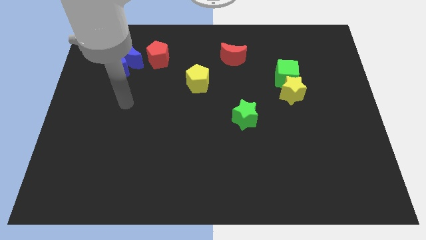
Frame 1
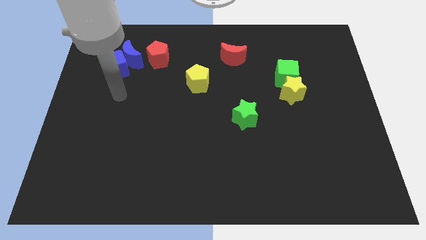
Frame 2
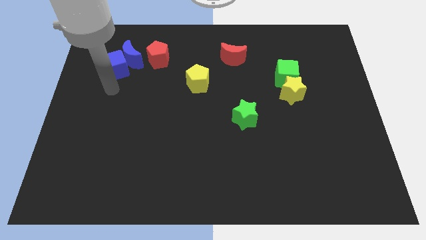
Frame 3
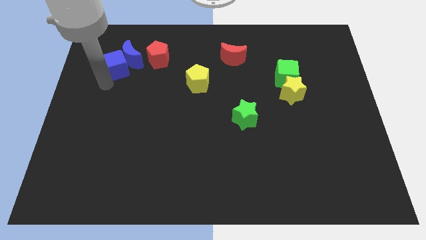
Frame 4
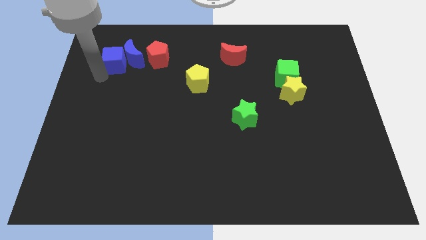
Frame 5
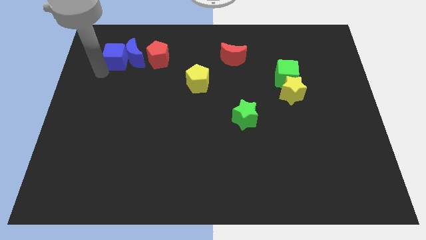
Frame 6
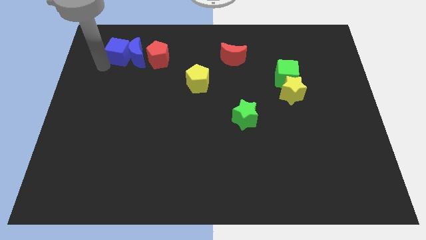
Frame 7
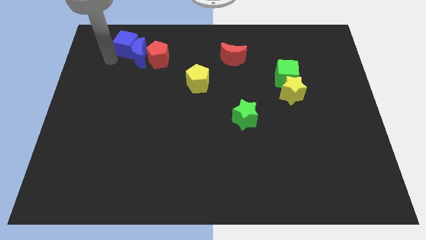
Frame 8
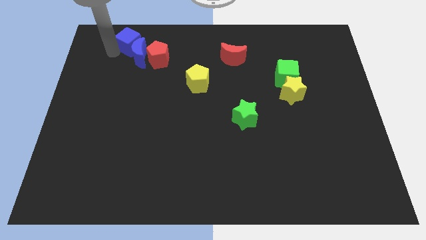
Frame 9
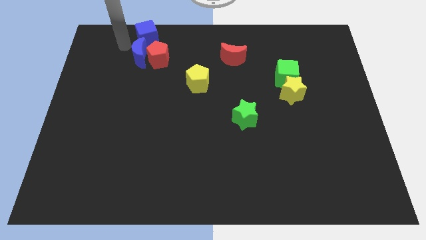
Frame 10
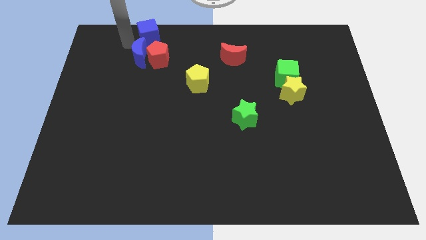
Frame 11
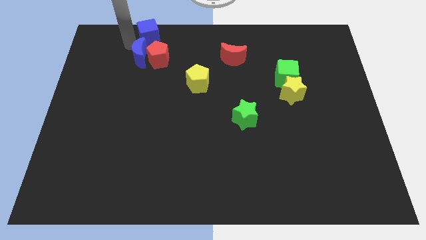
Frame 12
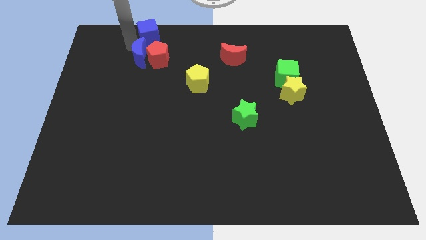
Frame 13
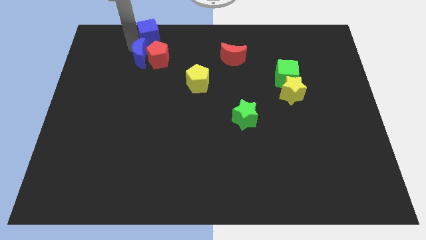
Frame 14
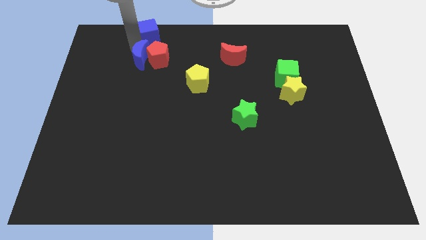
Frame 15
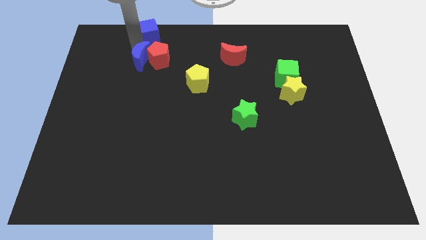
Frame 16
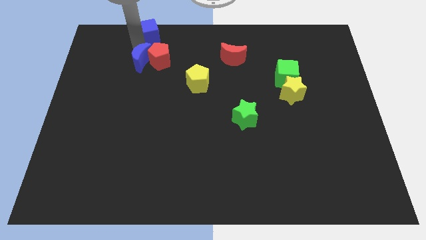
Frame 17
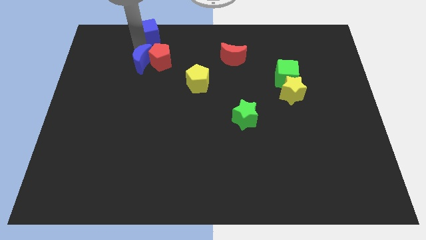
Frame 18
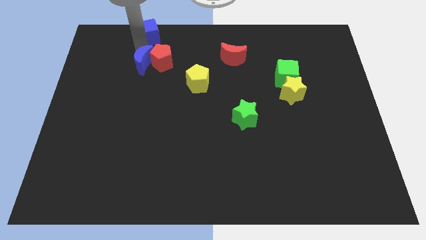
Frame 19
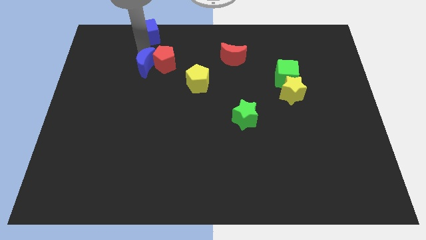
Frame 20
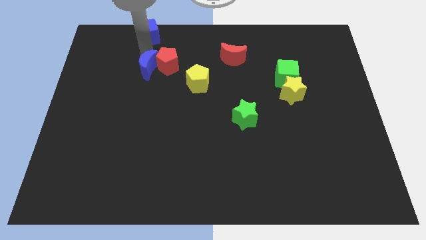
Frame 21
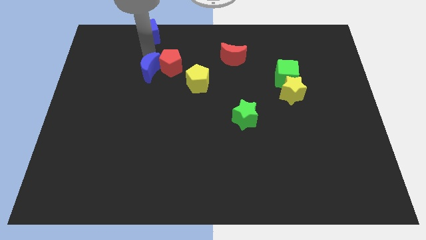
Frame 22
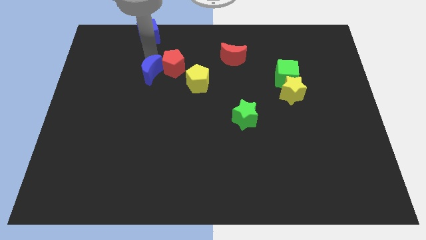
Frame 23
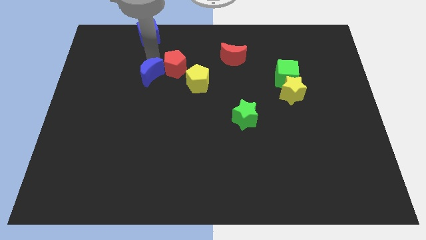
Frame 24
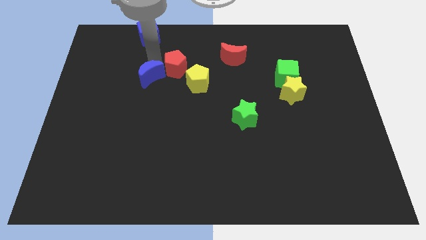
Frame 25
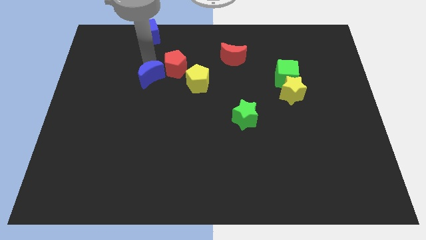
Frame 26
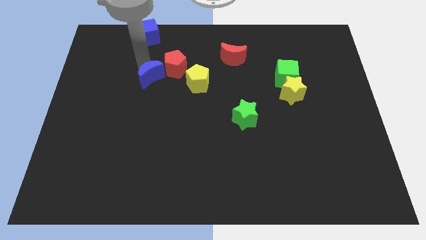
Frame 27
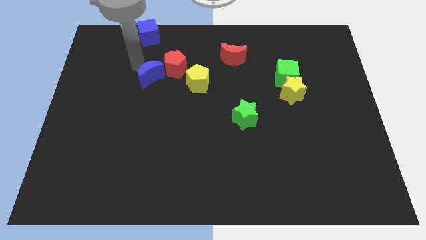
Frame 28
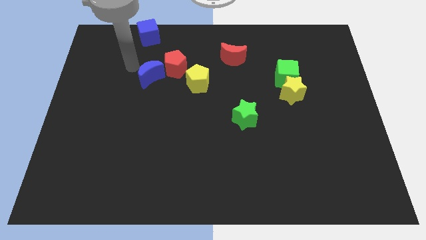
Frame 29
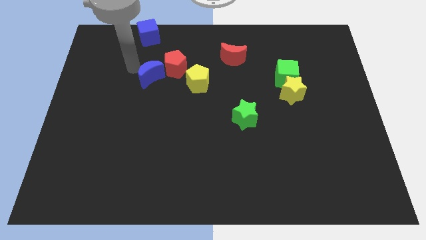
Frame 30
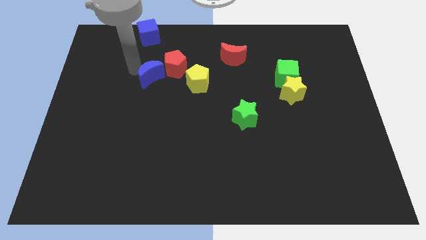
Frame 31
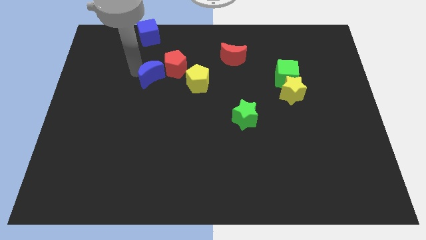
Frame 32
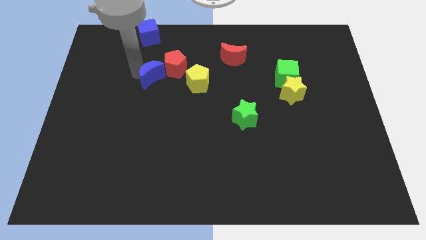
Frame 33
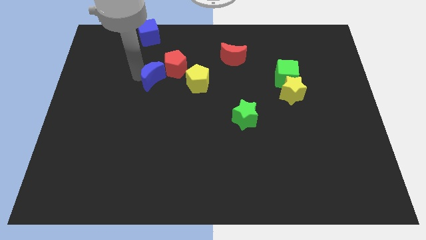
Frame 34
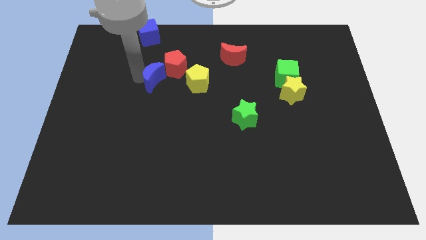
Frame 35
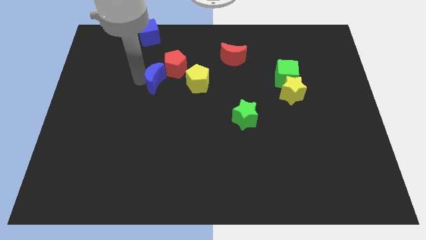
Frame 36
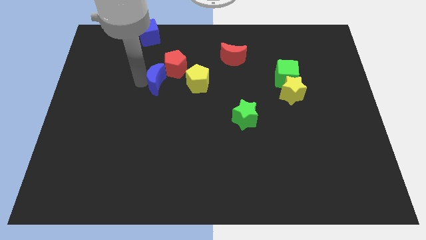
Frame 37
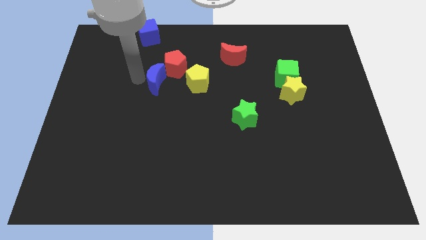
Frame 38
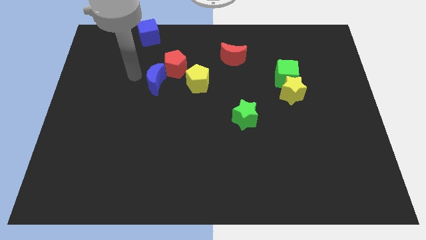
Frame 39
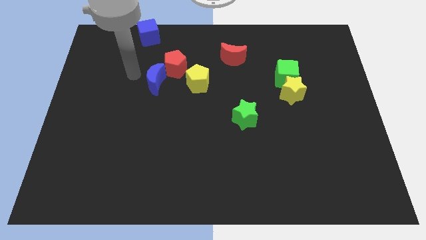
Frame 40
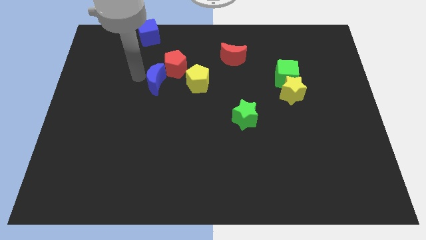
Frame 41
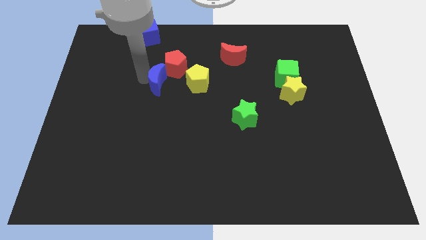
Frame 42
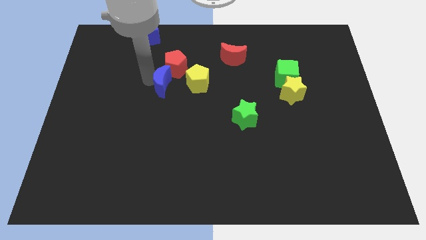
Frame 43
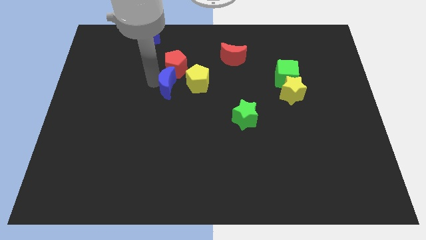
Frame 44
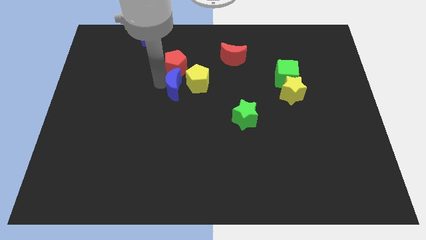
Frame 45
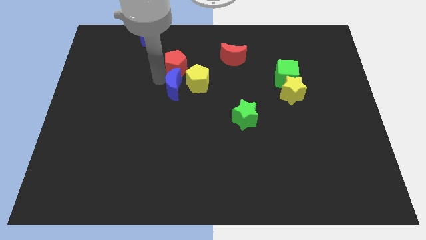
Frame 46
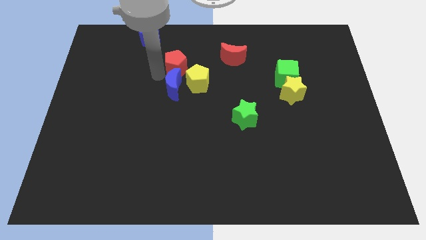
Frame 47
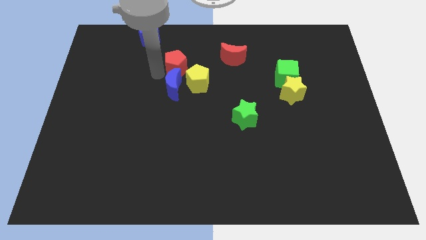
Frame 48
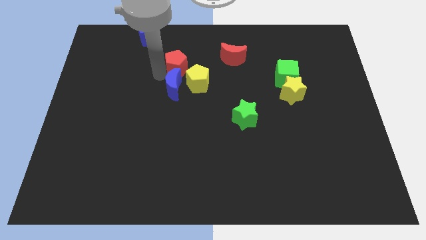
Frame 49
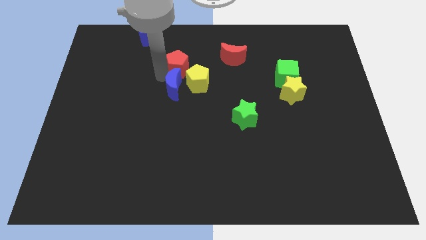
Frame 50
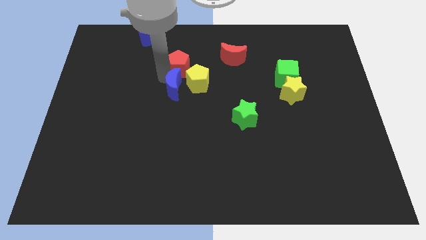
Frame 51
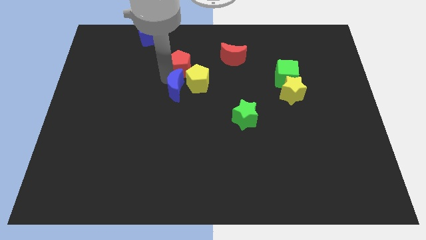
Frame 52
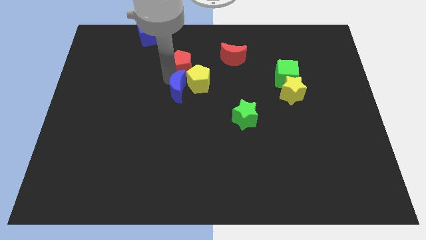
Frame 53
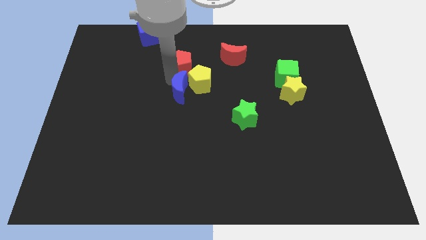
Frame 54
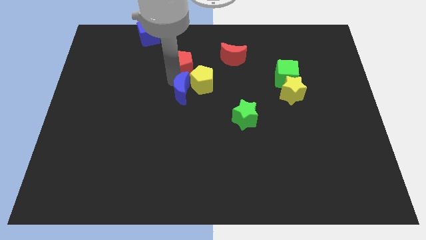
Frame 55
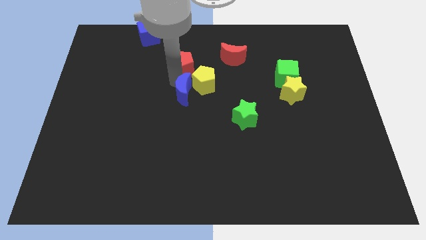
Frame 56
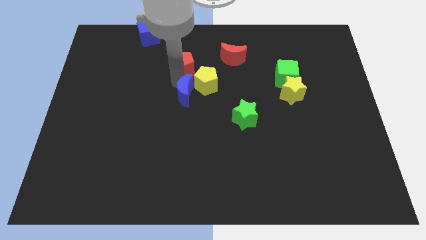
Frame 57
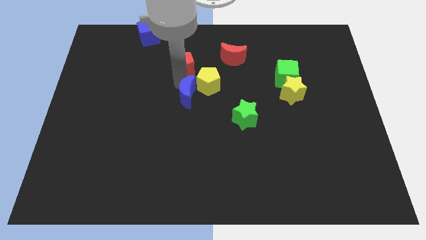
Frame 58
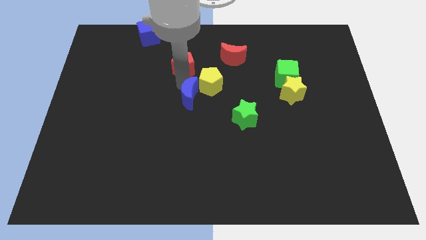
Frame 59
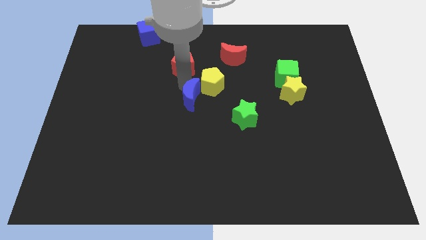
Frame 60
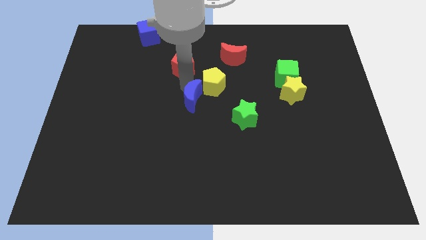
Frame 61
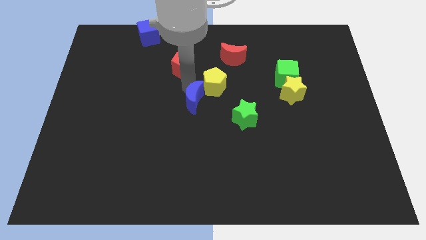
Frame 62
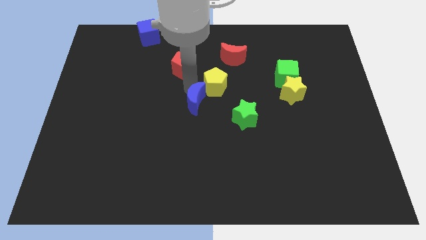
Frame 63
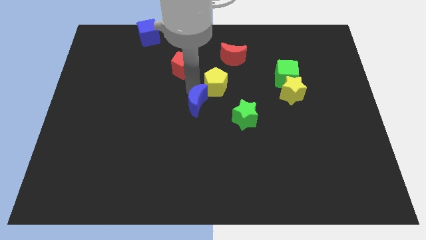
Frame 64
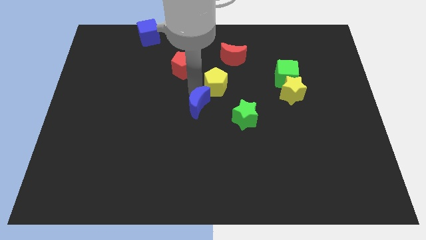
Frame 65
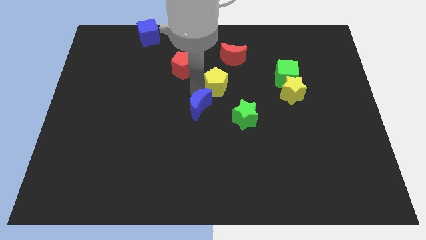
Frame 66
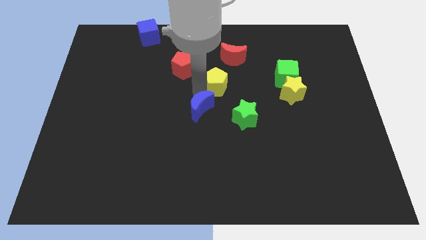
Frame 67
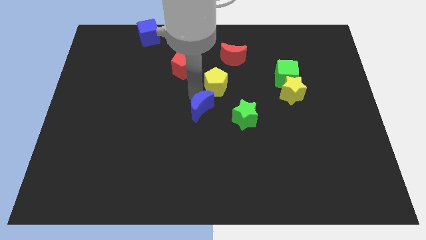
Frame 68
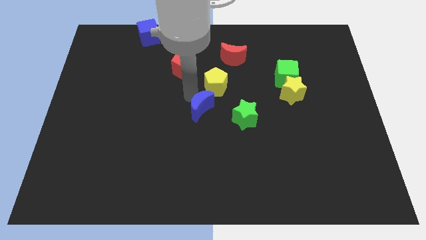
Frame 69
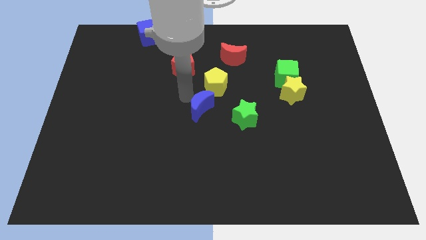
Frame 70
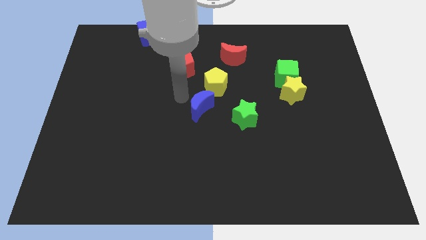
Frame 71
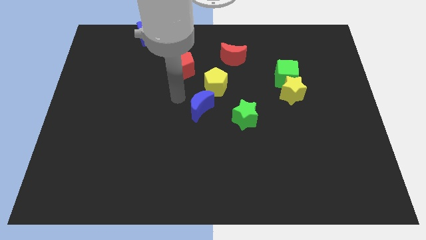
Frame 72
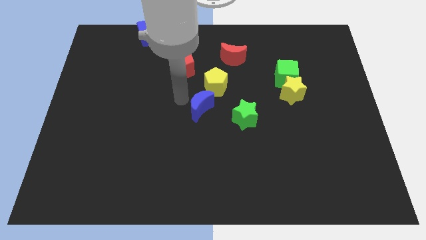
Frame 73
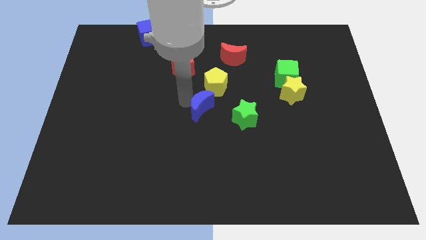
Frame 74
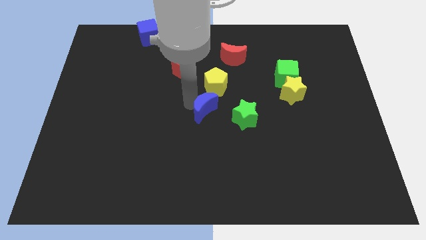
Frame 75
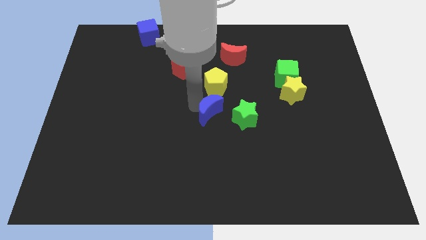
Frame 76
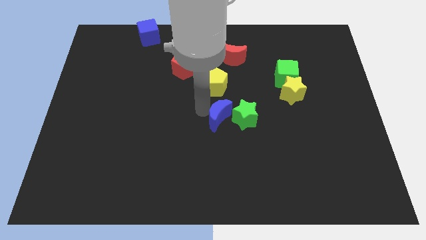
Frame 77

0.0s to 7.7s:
slide the blue moon close to the green star
